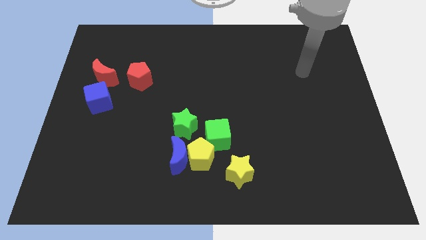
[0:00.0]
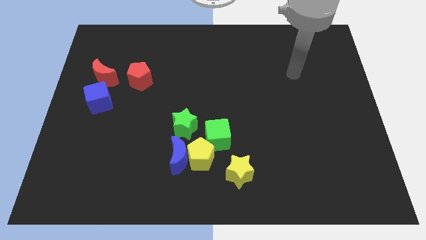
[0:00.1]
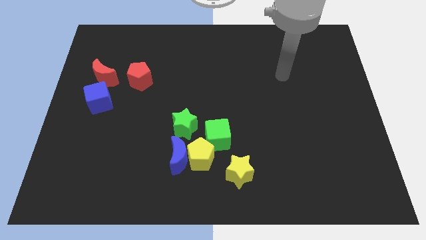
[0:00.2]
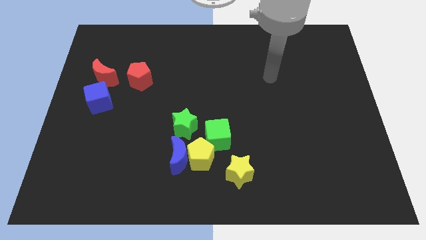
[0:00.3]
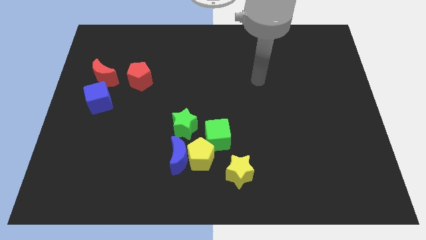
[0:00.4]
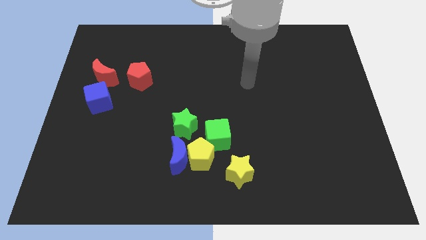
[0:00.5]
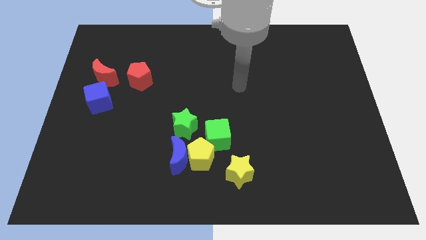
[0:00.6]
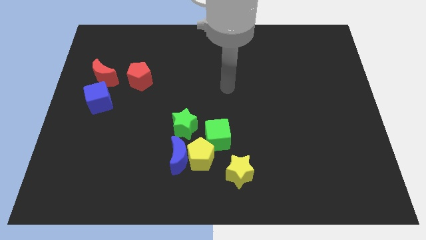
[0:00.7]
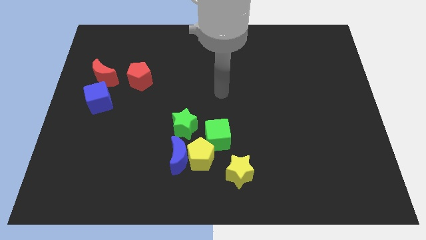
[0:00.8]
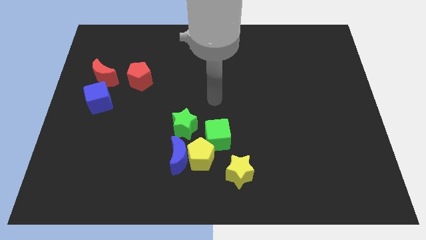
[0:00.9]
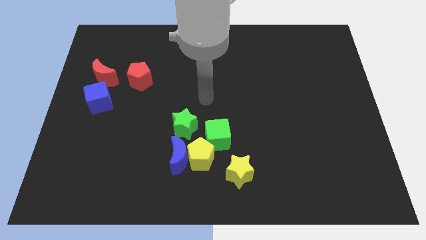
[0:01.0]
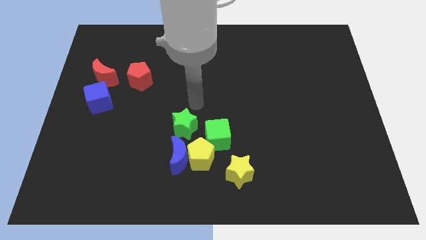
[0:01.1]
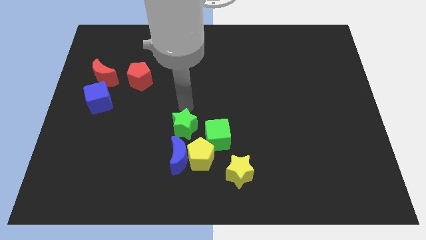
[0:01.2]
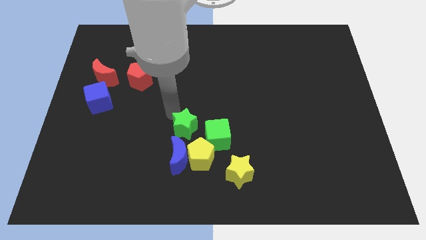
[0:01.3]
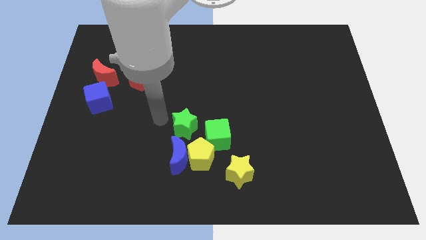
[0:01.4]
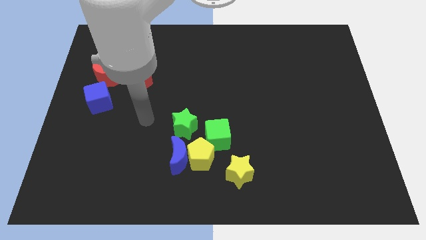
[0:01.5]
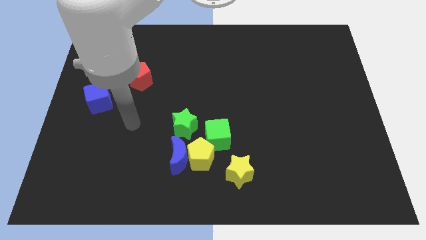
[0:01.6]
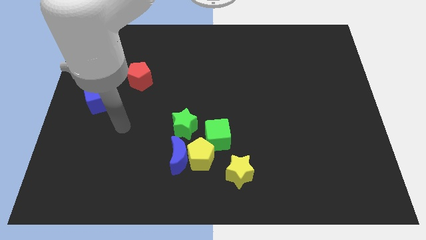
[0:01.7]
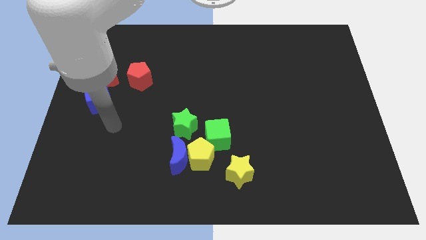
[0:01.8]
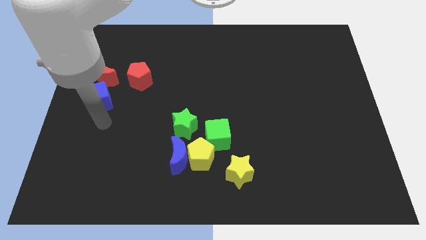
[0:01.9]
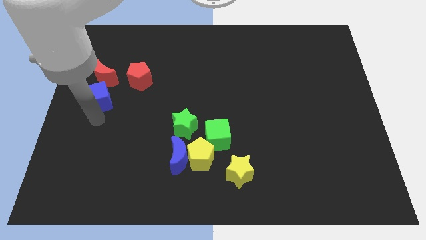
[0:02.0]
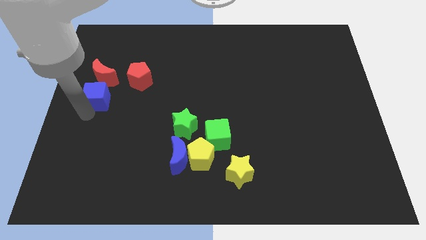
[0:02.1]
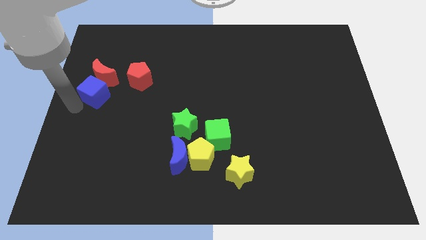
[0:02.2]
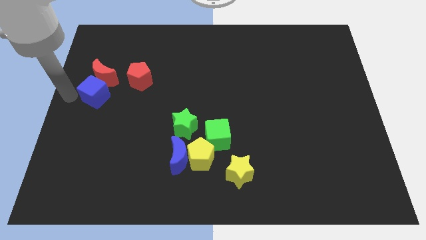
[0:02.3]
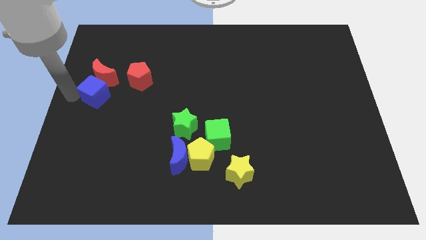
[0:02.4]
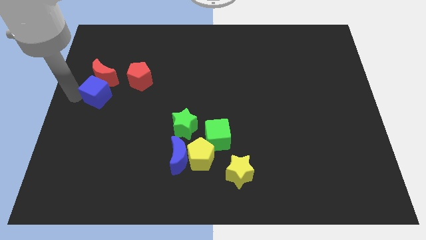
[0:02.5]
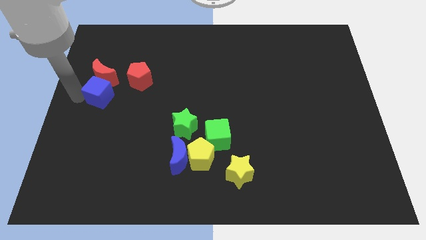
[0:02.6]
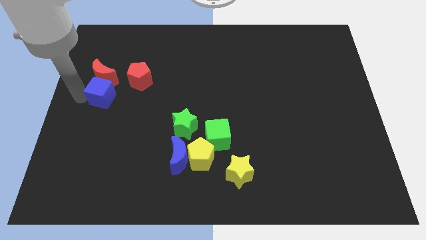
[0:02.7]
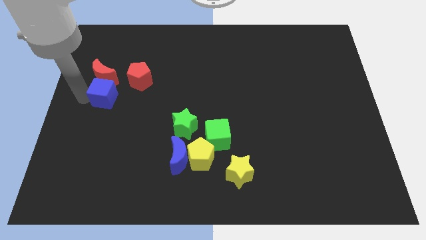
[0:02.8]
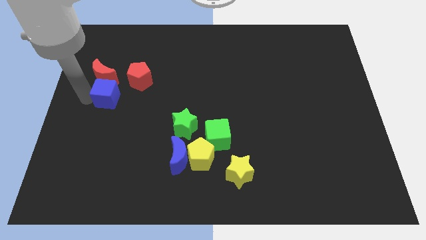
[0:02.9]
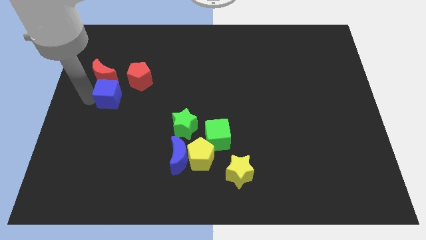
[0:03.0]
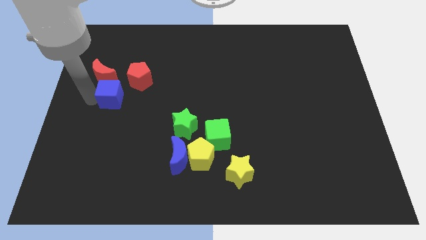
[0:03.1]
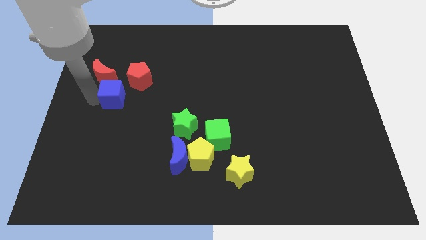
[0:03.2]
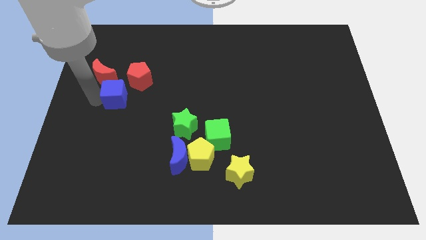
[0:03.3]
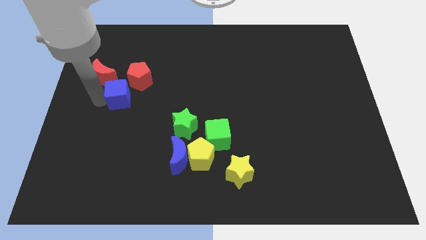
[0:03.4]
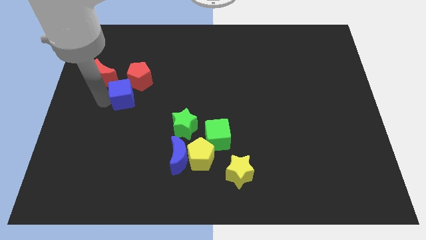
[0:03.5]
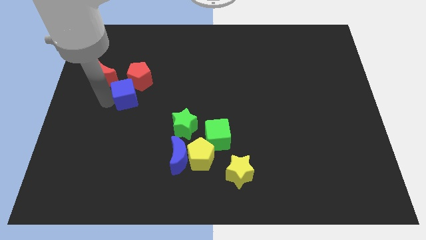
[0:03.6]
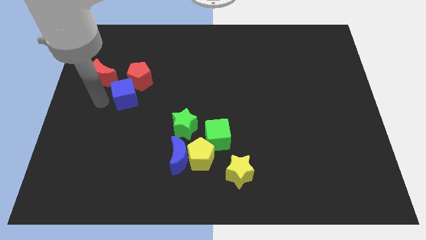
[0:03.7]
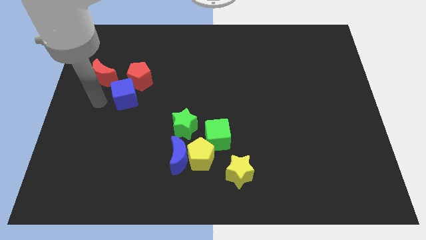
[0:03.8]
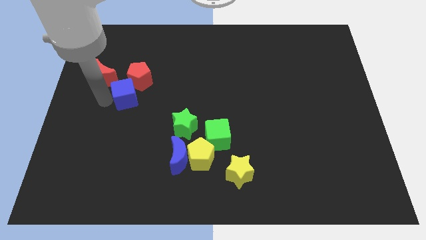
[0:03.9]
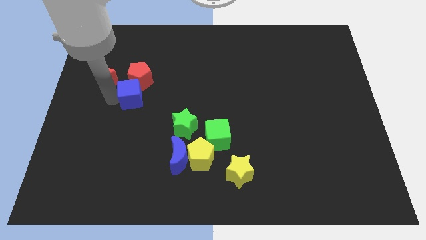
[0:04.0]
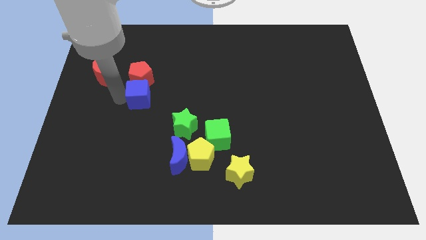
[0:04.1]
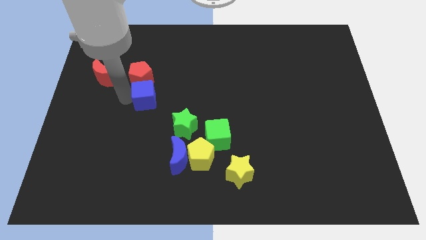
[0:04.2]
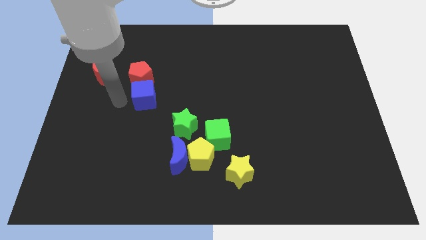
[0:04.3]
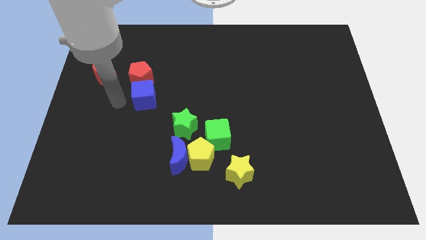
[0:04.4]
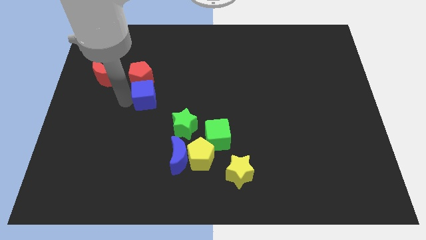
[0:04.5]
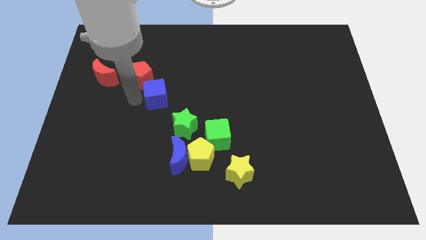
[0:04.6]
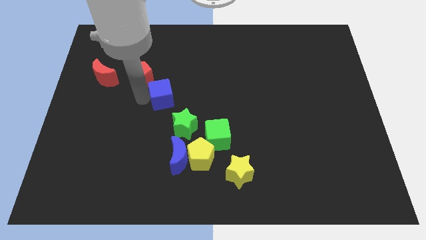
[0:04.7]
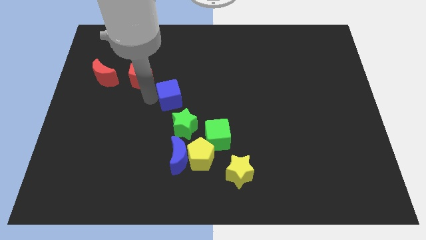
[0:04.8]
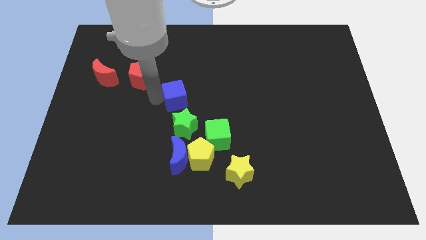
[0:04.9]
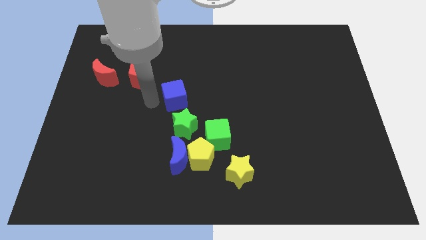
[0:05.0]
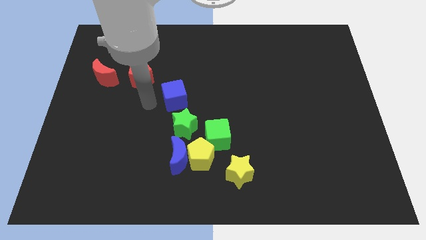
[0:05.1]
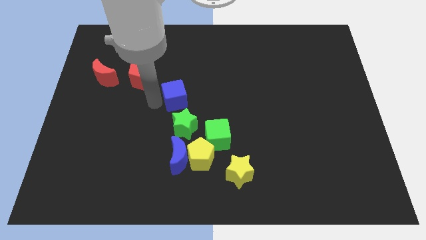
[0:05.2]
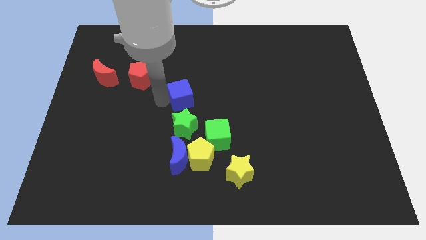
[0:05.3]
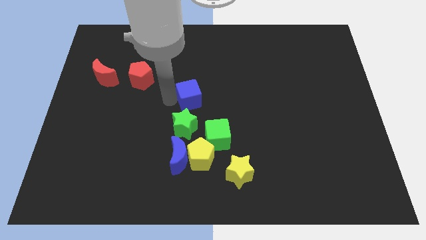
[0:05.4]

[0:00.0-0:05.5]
push the blue cube to the right

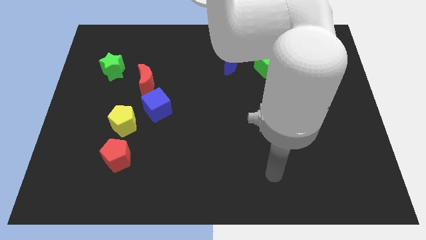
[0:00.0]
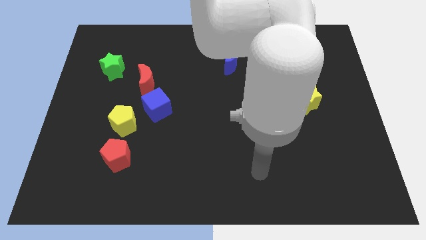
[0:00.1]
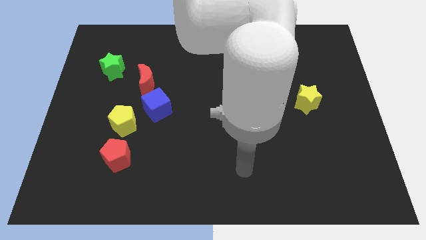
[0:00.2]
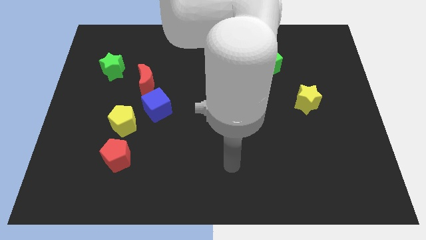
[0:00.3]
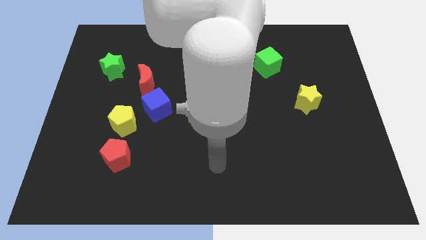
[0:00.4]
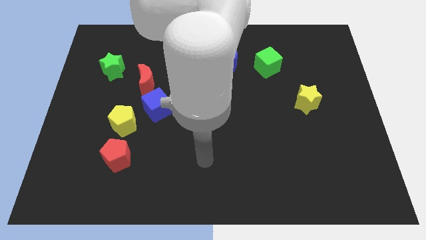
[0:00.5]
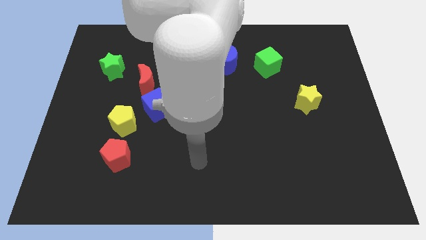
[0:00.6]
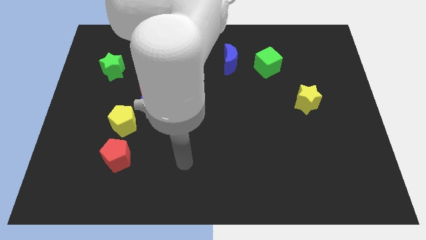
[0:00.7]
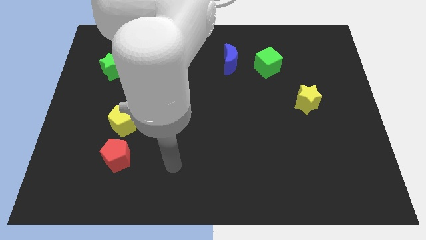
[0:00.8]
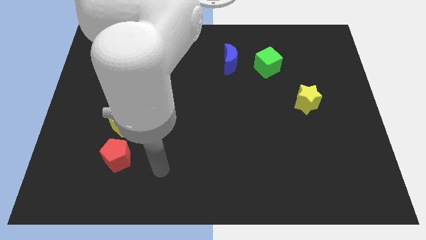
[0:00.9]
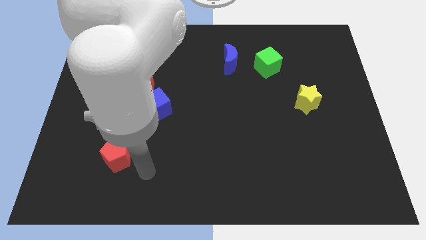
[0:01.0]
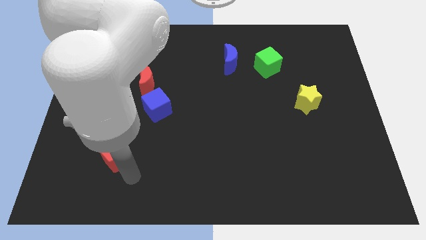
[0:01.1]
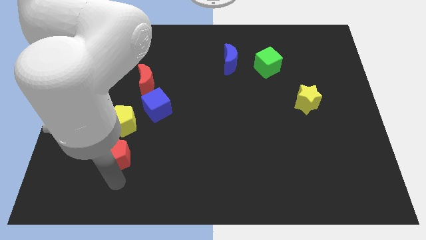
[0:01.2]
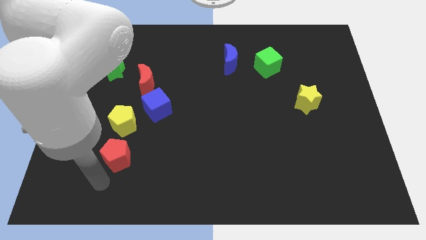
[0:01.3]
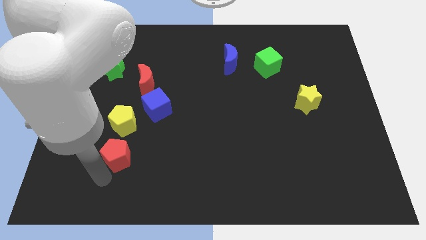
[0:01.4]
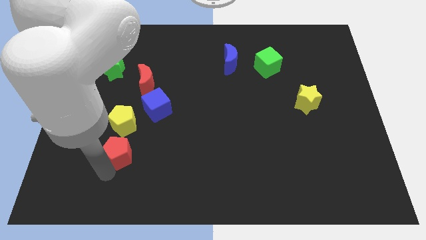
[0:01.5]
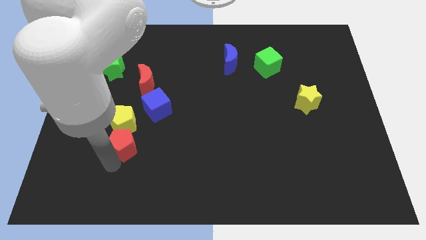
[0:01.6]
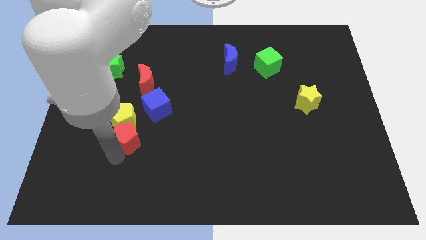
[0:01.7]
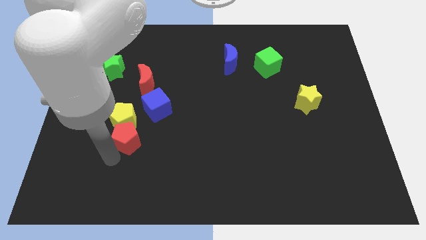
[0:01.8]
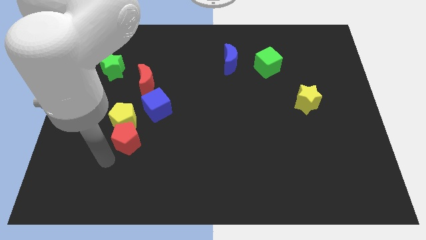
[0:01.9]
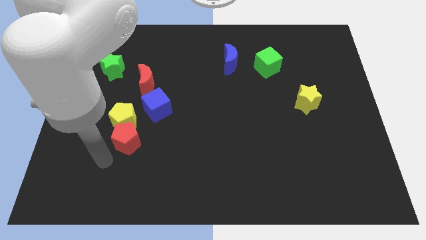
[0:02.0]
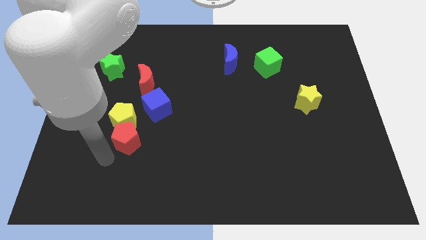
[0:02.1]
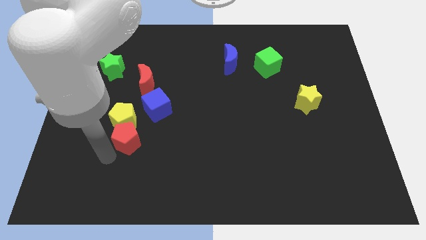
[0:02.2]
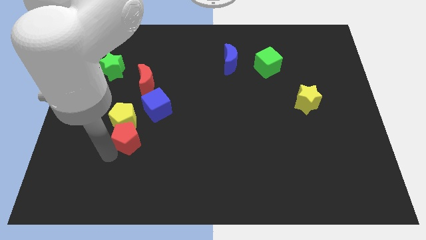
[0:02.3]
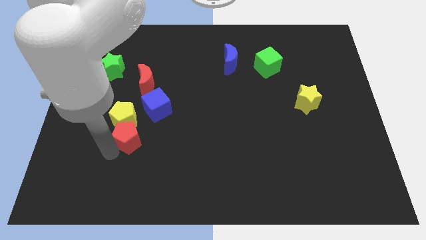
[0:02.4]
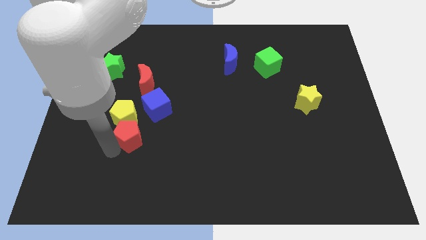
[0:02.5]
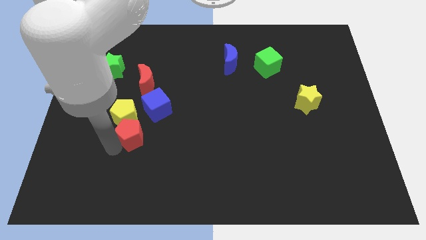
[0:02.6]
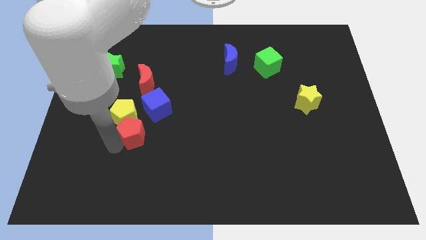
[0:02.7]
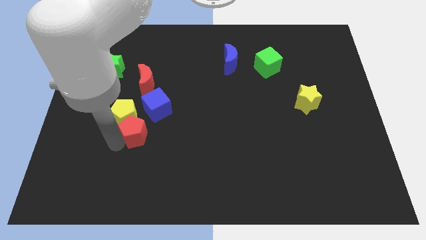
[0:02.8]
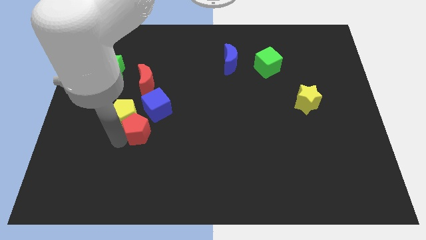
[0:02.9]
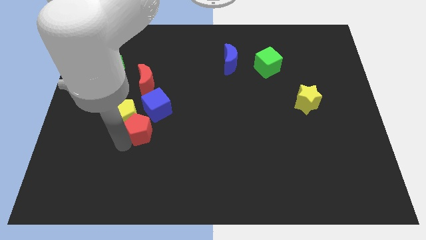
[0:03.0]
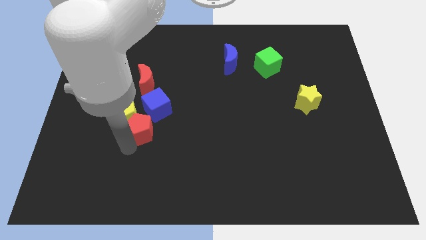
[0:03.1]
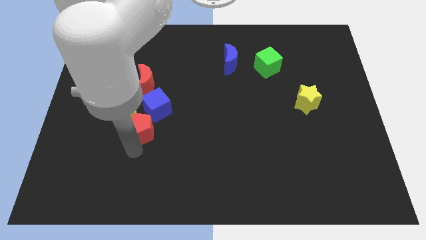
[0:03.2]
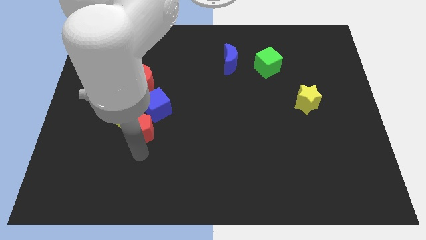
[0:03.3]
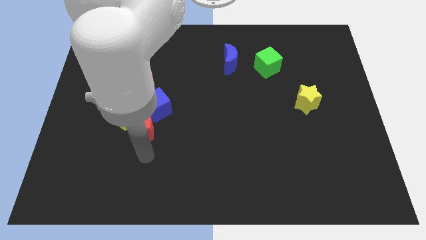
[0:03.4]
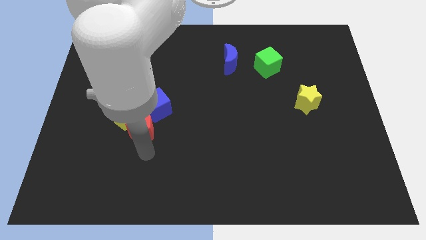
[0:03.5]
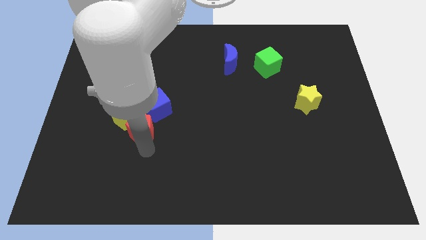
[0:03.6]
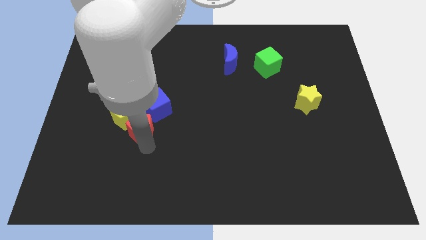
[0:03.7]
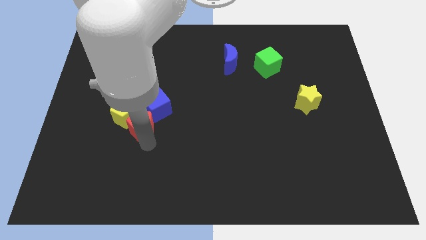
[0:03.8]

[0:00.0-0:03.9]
slide the red pentagon upwards slightly
